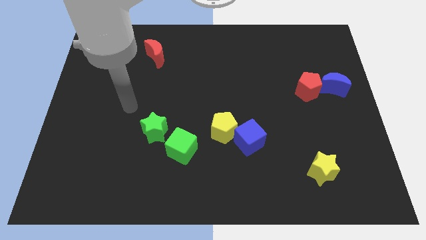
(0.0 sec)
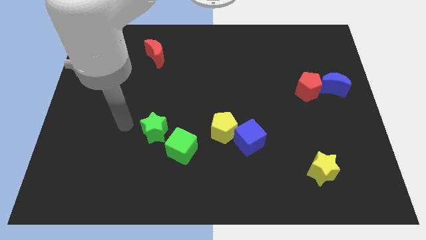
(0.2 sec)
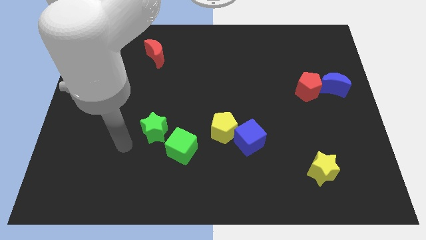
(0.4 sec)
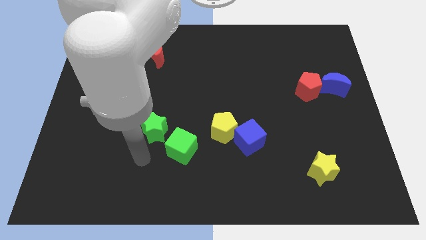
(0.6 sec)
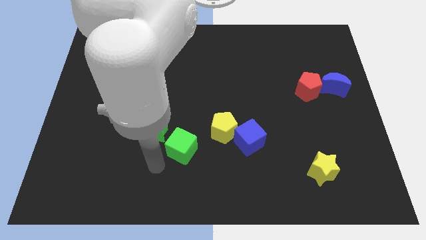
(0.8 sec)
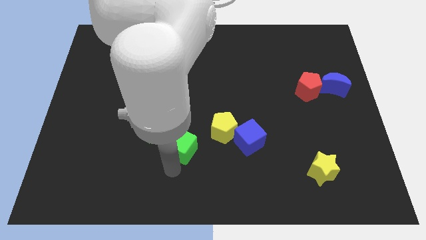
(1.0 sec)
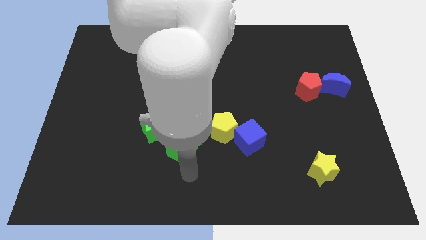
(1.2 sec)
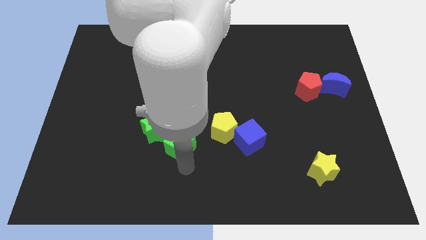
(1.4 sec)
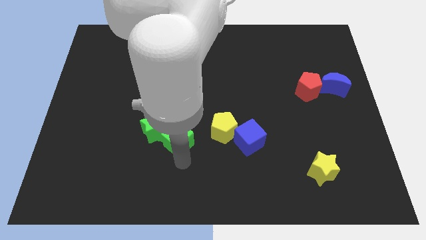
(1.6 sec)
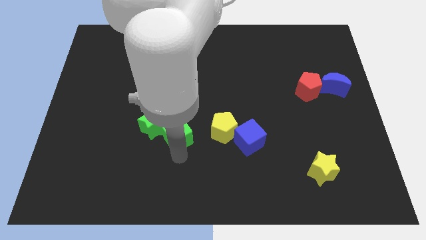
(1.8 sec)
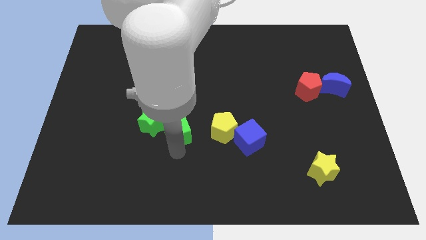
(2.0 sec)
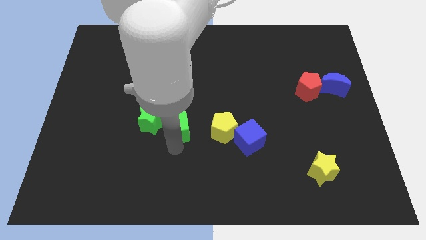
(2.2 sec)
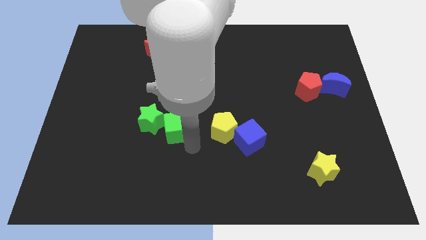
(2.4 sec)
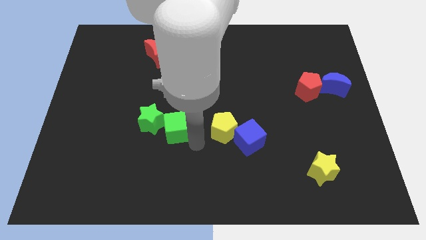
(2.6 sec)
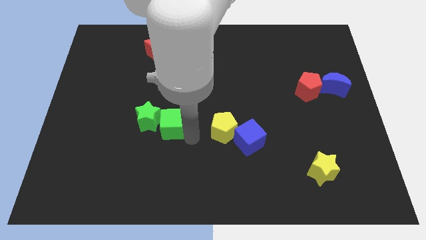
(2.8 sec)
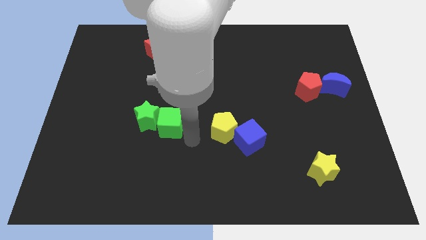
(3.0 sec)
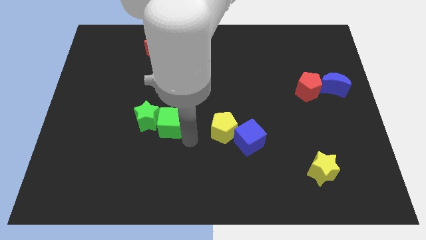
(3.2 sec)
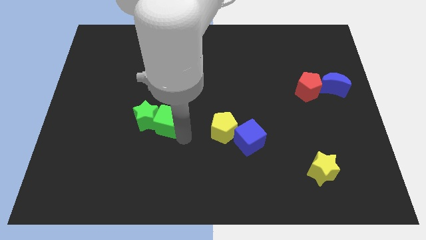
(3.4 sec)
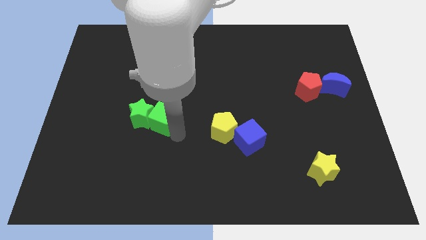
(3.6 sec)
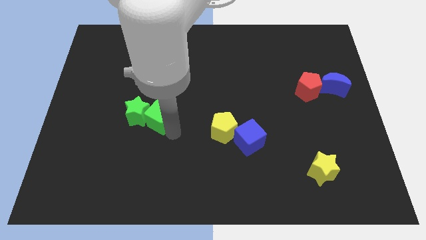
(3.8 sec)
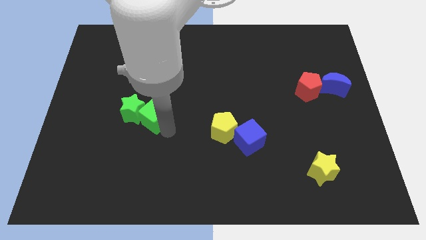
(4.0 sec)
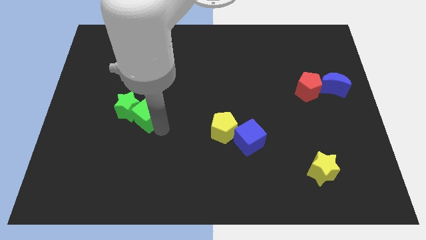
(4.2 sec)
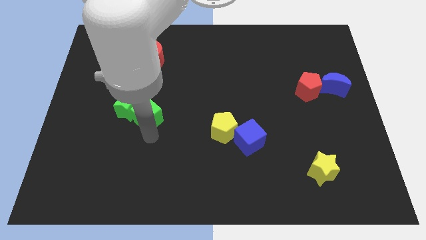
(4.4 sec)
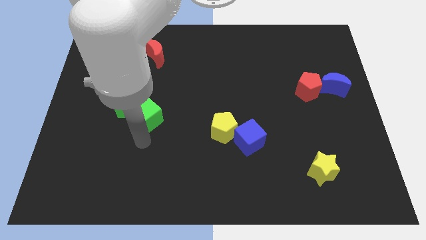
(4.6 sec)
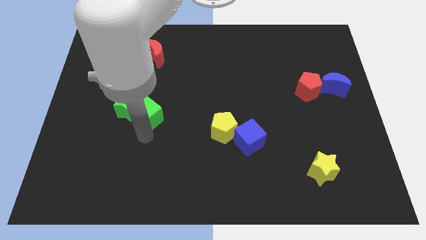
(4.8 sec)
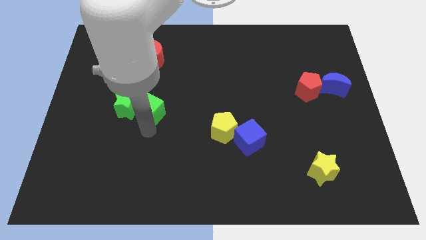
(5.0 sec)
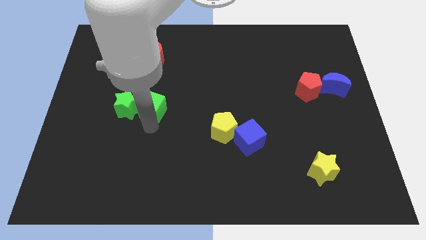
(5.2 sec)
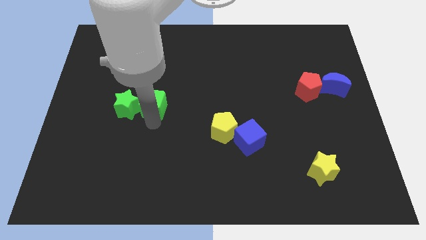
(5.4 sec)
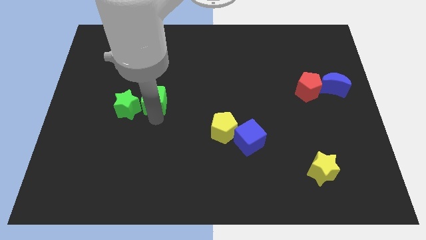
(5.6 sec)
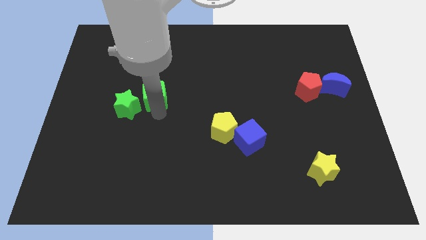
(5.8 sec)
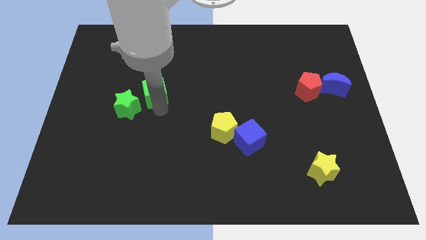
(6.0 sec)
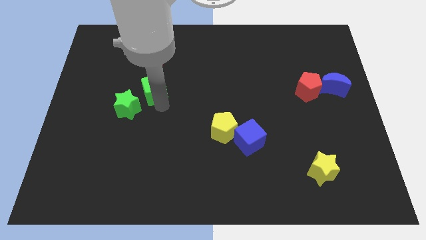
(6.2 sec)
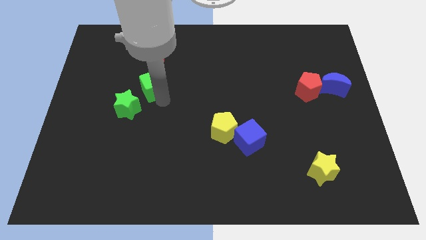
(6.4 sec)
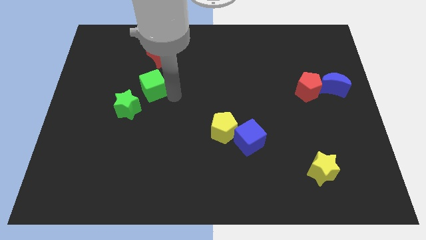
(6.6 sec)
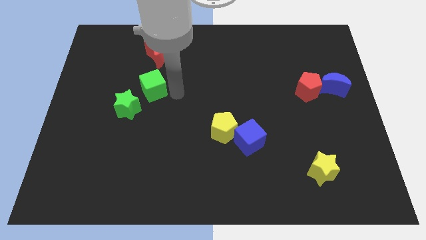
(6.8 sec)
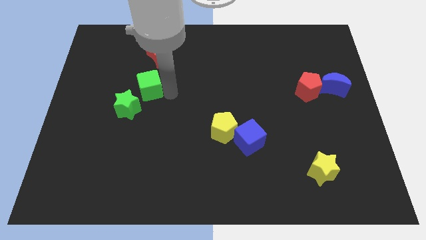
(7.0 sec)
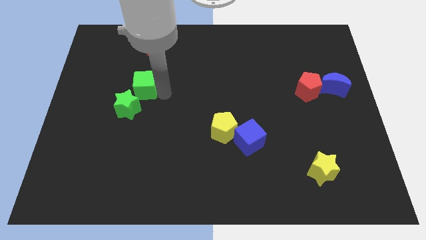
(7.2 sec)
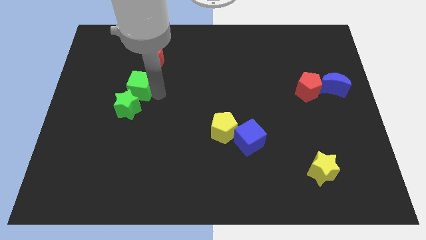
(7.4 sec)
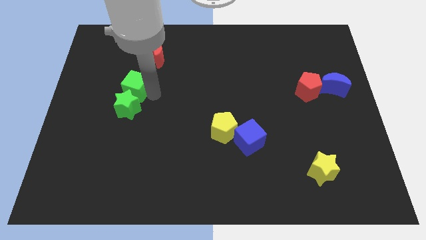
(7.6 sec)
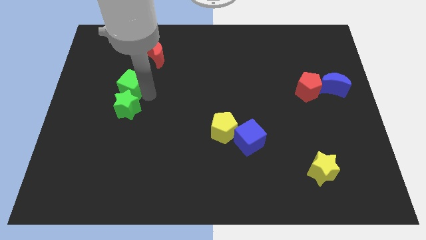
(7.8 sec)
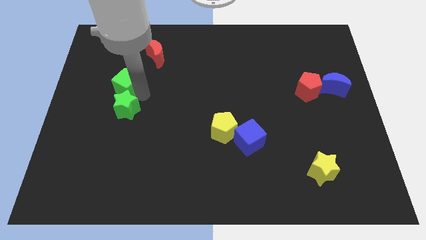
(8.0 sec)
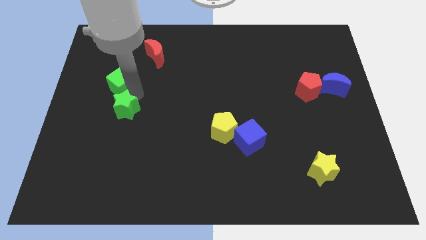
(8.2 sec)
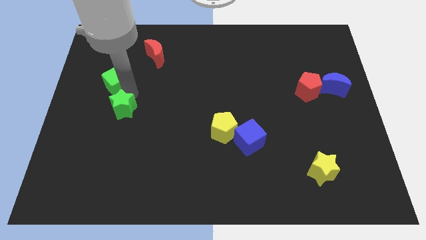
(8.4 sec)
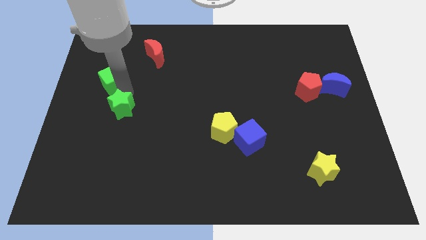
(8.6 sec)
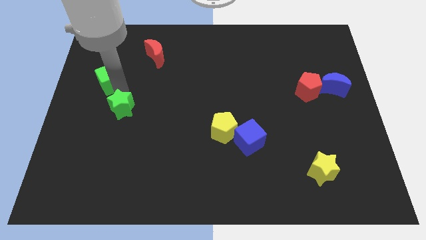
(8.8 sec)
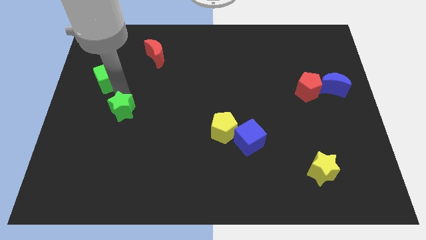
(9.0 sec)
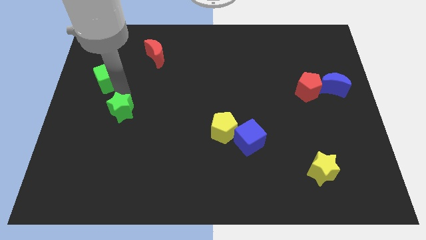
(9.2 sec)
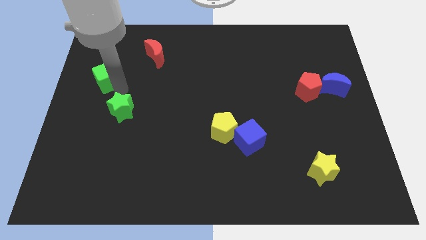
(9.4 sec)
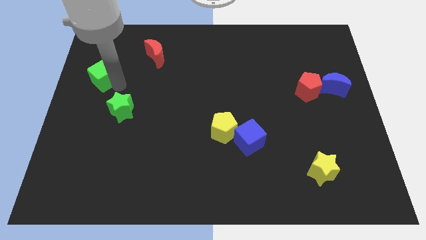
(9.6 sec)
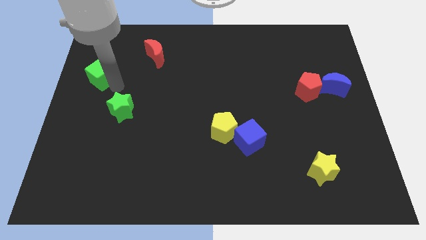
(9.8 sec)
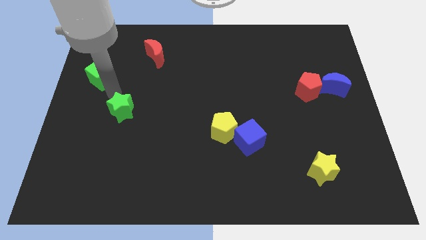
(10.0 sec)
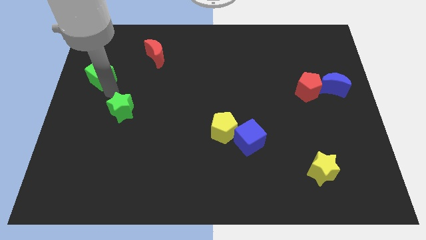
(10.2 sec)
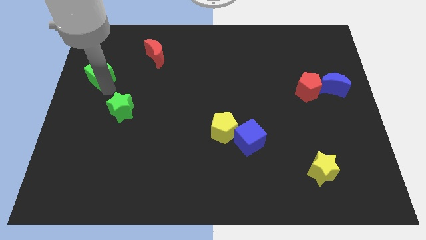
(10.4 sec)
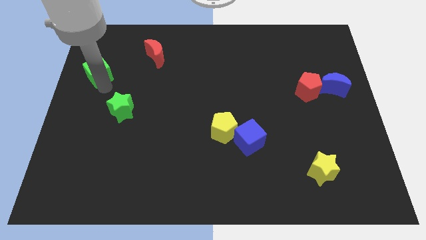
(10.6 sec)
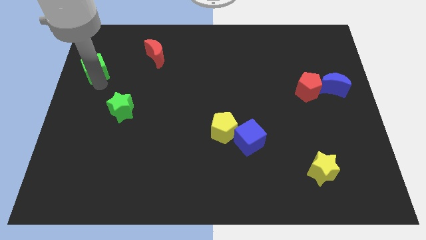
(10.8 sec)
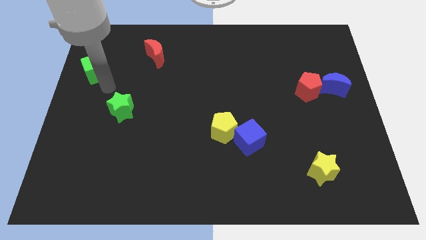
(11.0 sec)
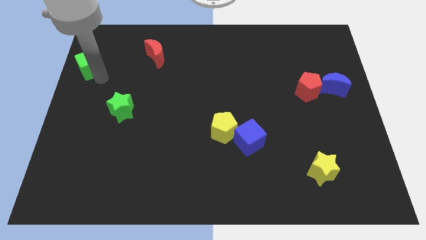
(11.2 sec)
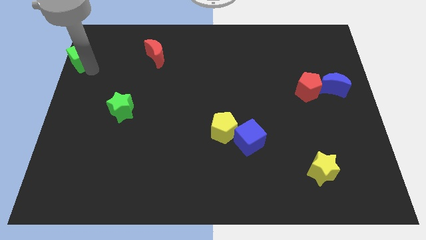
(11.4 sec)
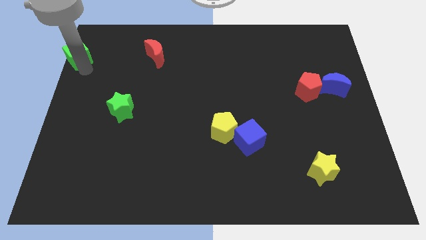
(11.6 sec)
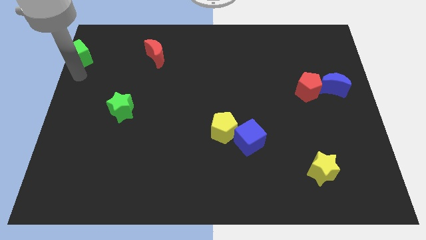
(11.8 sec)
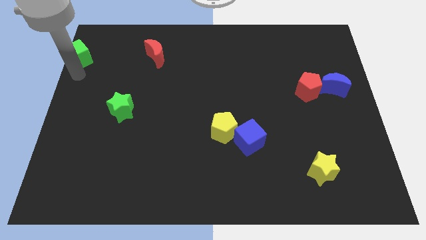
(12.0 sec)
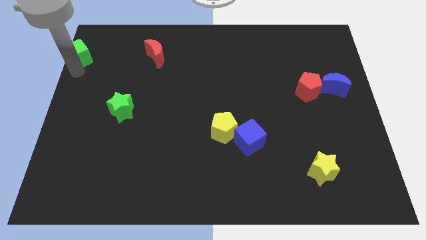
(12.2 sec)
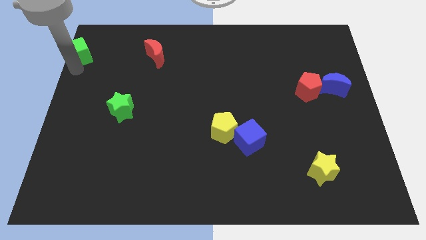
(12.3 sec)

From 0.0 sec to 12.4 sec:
put the green cube to the top left

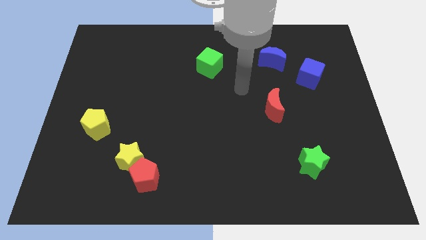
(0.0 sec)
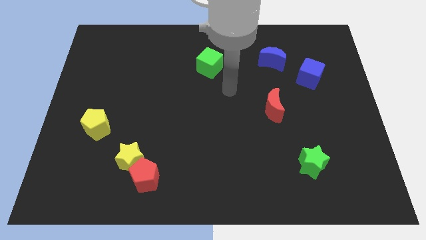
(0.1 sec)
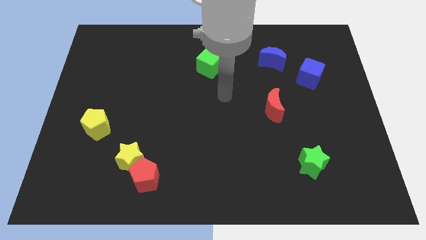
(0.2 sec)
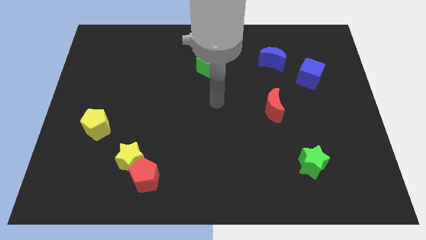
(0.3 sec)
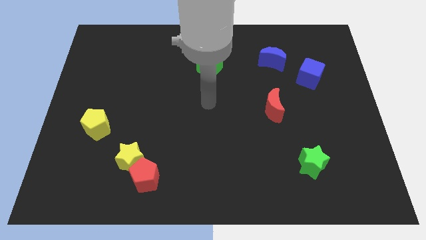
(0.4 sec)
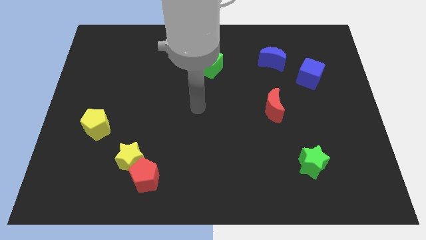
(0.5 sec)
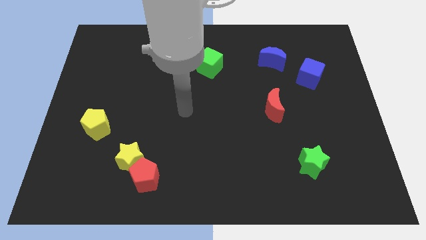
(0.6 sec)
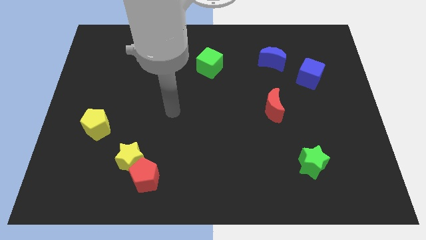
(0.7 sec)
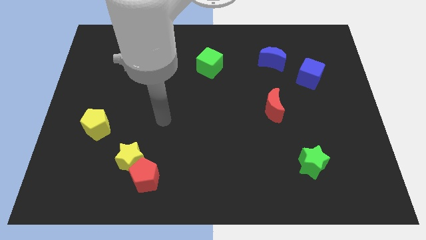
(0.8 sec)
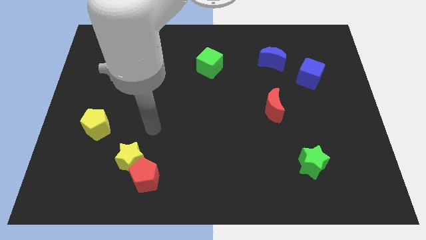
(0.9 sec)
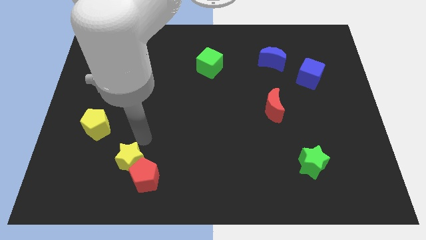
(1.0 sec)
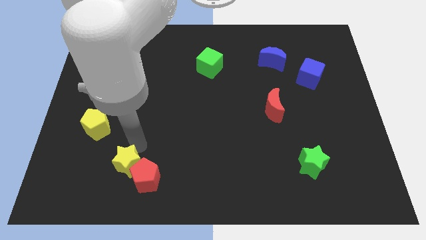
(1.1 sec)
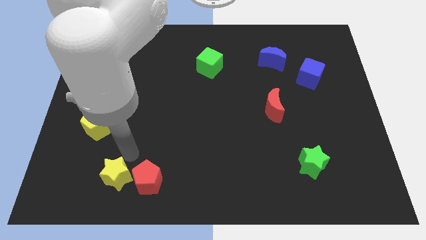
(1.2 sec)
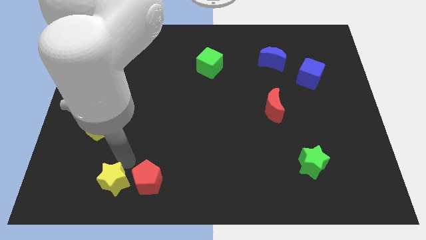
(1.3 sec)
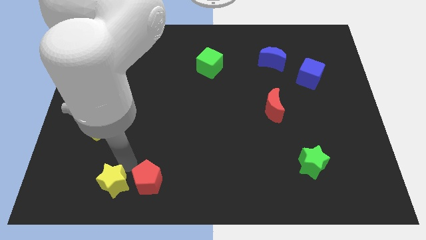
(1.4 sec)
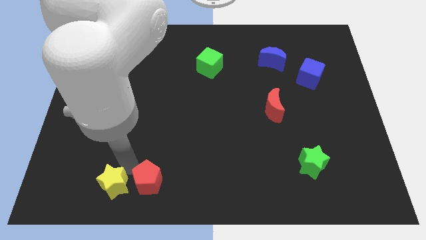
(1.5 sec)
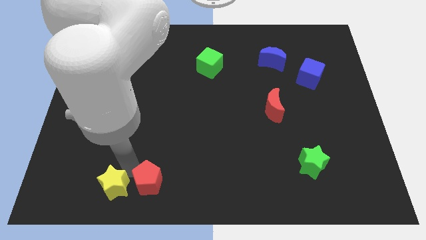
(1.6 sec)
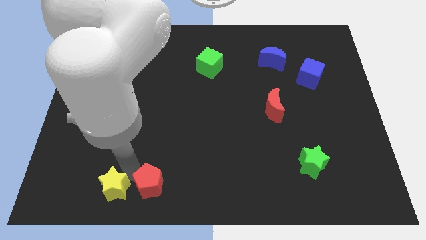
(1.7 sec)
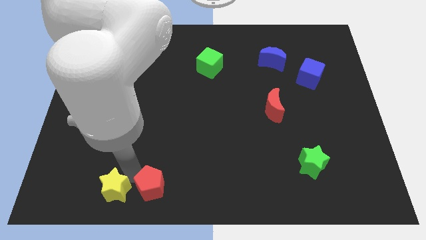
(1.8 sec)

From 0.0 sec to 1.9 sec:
put the red pentagon to the bottom side
